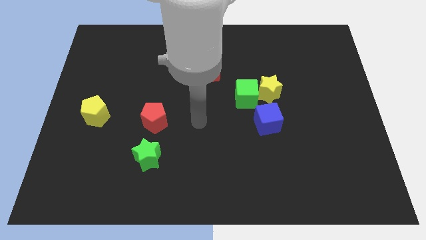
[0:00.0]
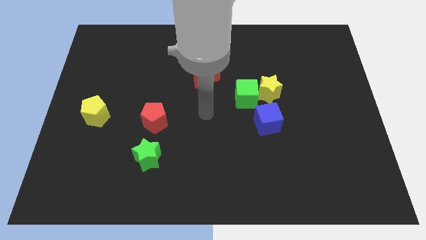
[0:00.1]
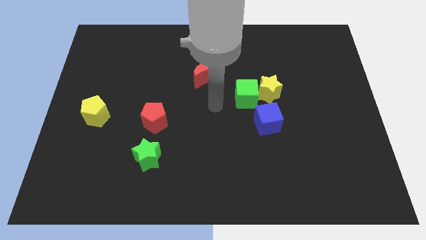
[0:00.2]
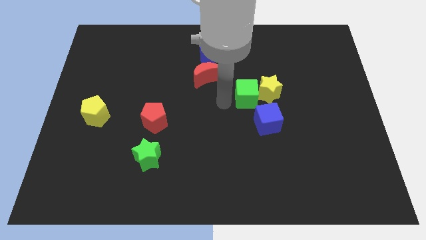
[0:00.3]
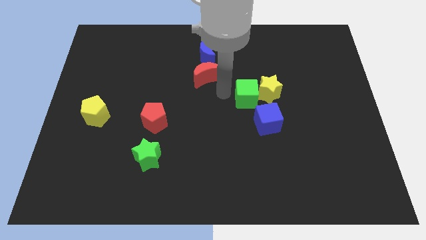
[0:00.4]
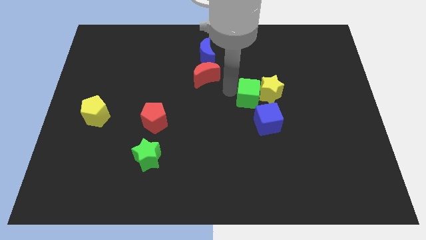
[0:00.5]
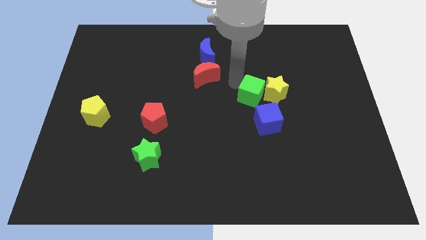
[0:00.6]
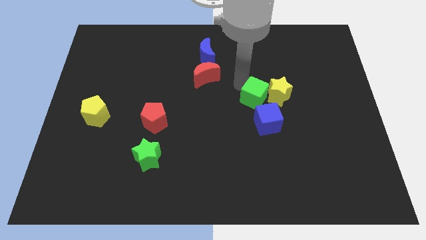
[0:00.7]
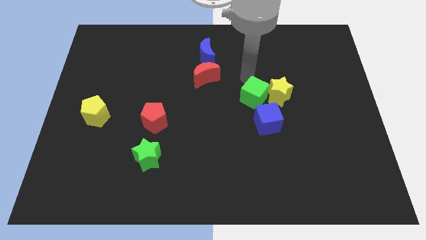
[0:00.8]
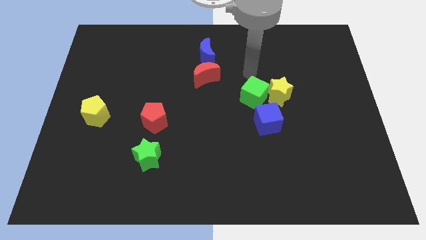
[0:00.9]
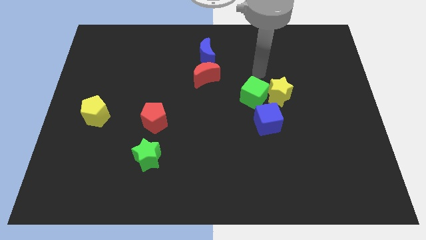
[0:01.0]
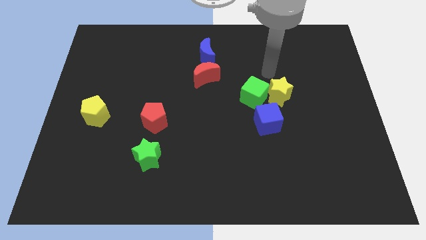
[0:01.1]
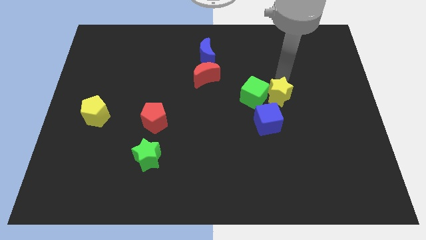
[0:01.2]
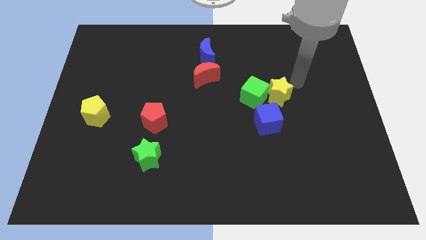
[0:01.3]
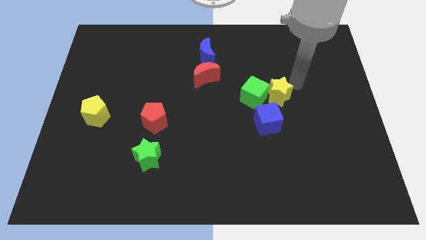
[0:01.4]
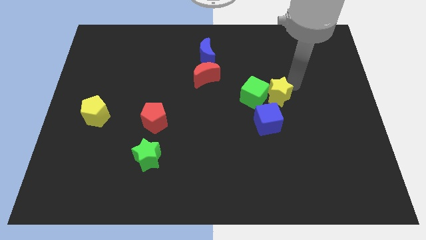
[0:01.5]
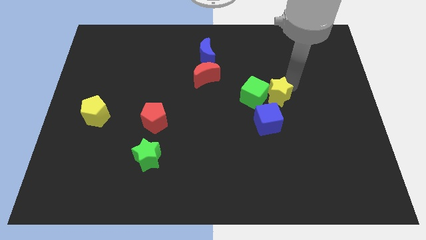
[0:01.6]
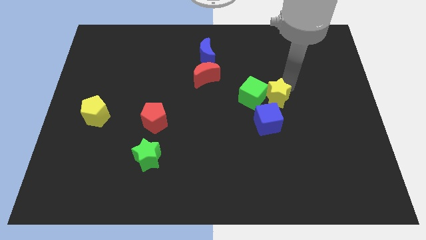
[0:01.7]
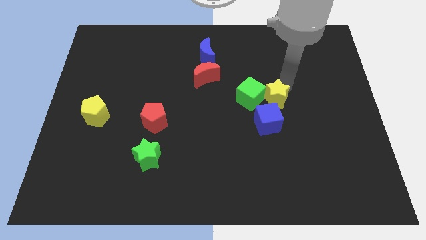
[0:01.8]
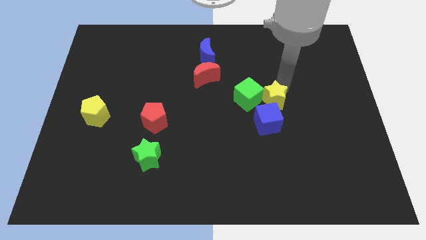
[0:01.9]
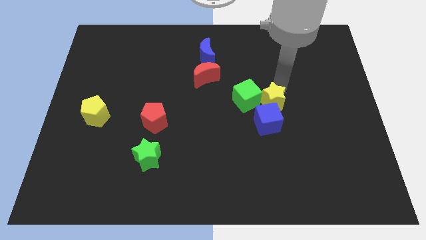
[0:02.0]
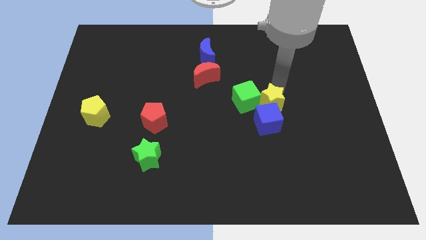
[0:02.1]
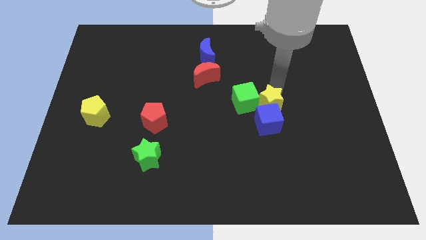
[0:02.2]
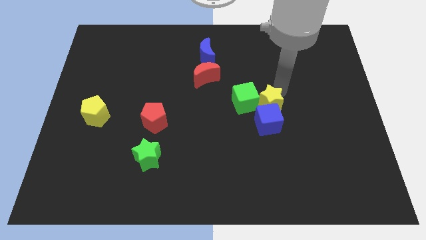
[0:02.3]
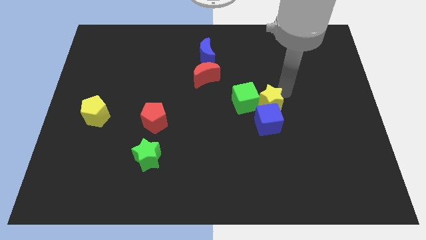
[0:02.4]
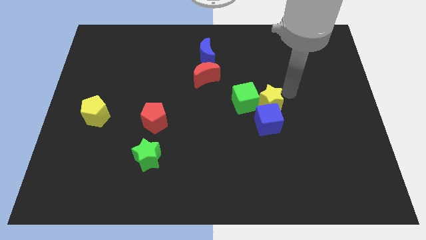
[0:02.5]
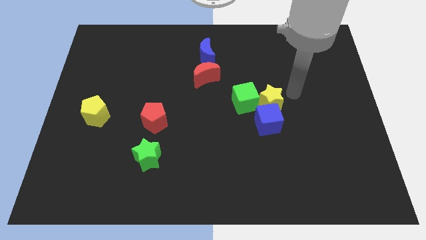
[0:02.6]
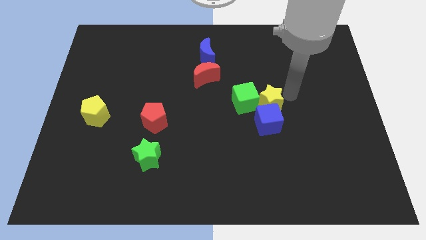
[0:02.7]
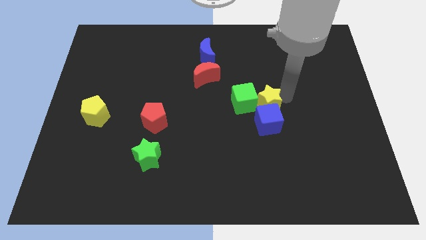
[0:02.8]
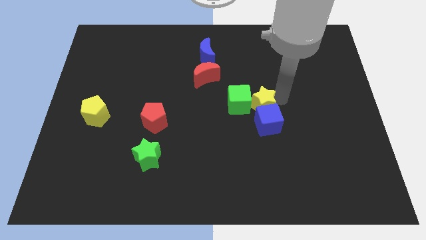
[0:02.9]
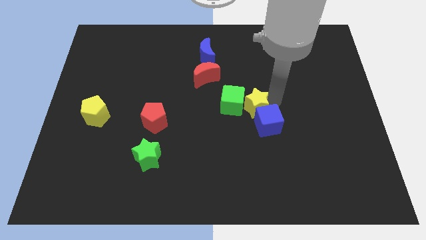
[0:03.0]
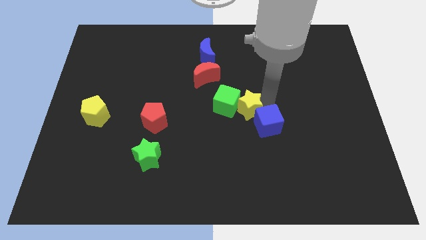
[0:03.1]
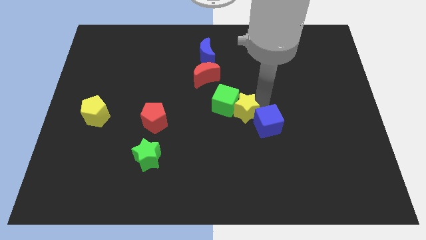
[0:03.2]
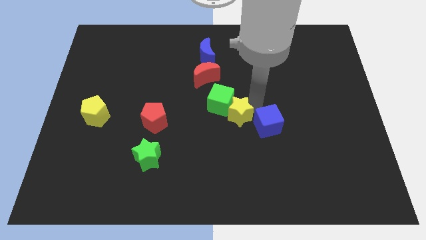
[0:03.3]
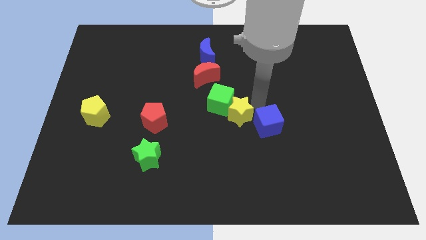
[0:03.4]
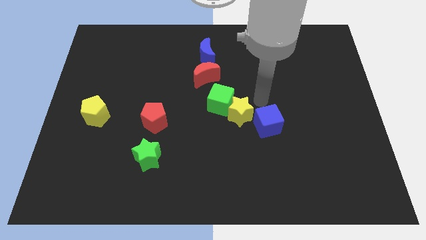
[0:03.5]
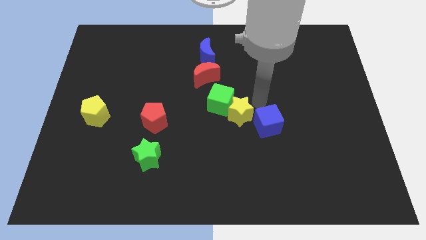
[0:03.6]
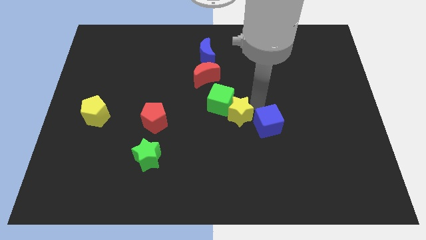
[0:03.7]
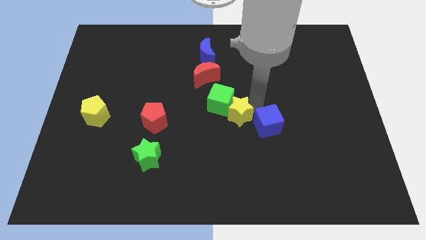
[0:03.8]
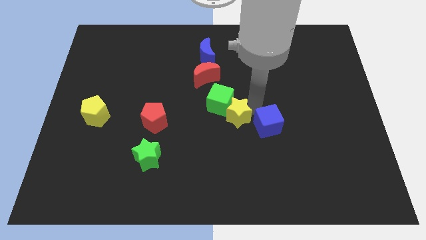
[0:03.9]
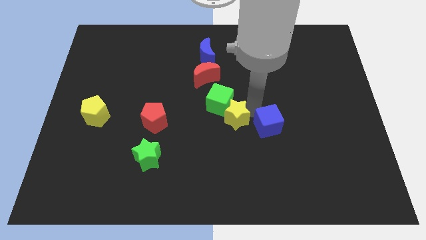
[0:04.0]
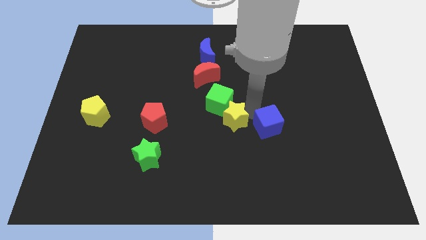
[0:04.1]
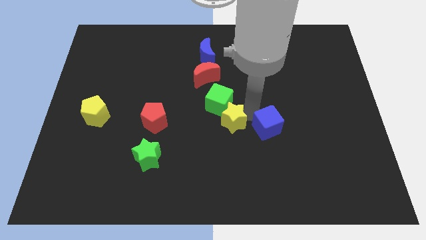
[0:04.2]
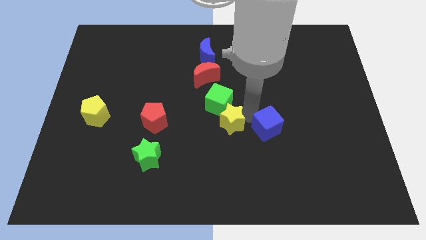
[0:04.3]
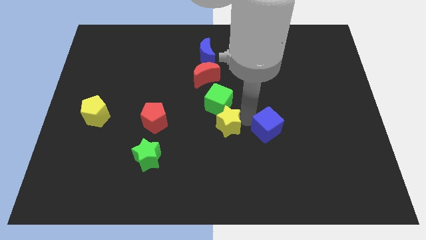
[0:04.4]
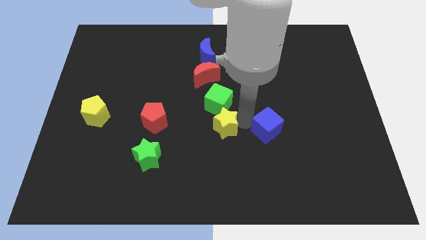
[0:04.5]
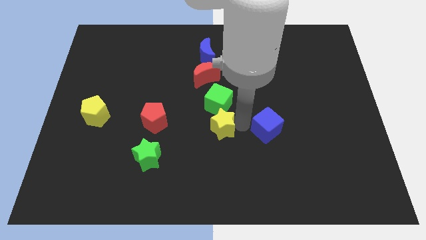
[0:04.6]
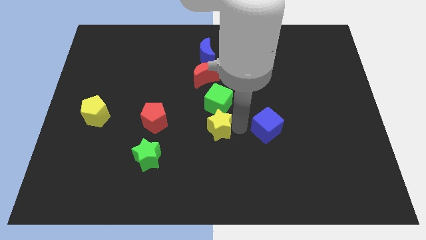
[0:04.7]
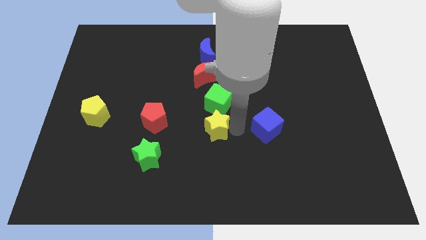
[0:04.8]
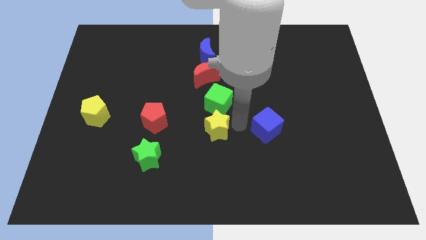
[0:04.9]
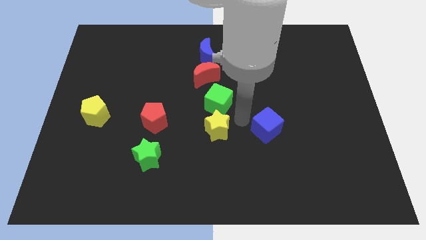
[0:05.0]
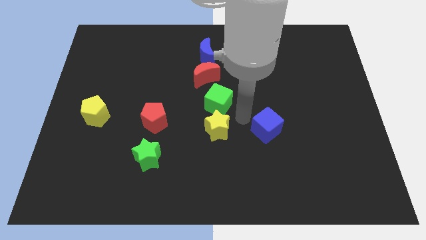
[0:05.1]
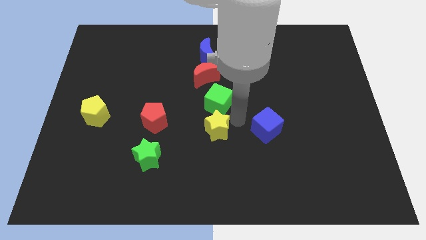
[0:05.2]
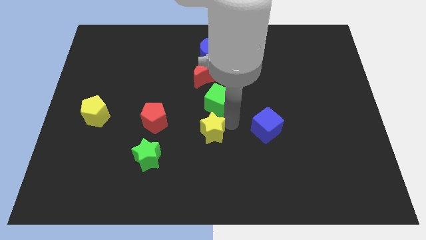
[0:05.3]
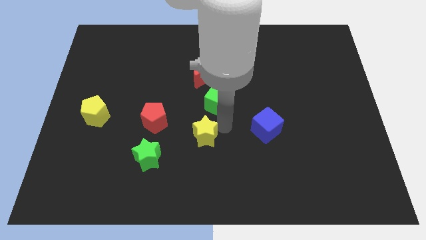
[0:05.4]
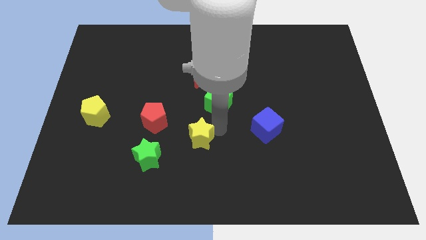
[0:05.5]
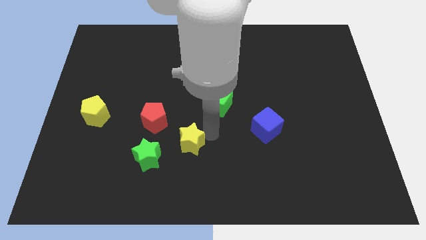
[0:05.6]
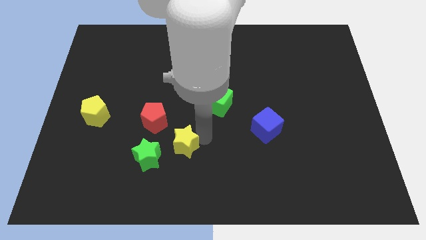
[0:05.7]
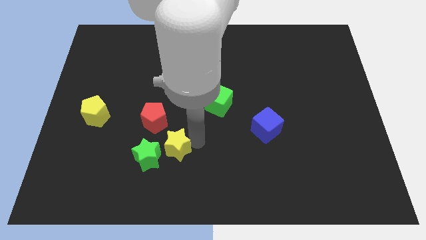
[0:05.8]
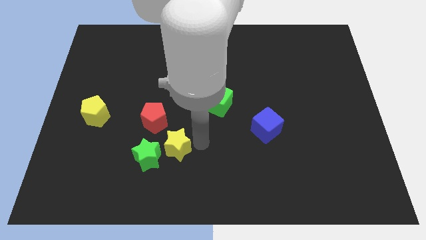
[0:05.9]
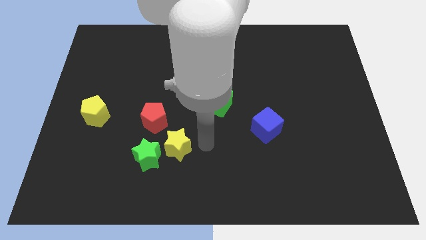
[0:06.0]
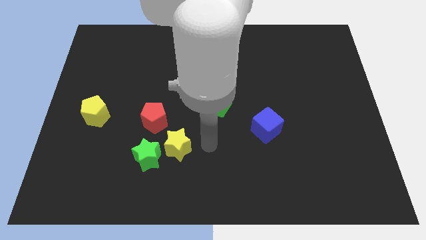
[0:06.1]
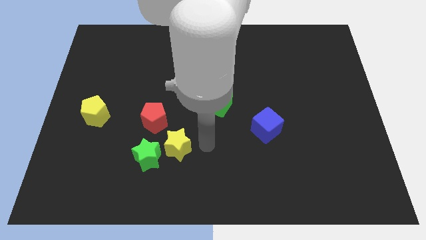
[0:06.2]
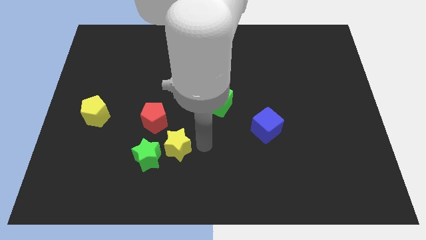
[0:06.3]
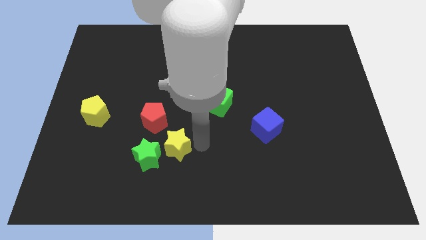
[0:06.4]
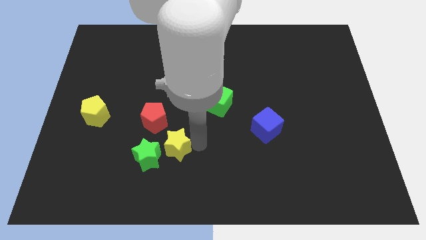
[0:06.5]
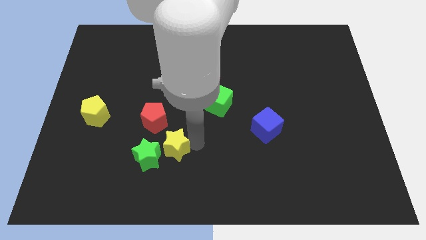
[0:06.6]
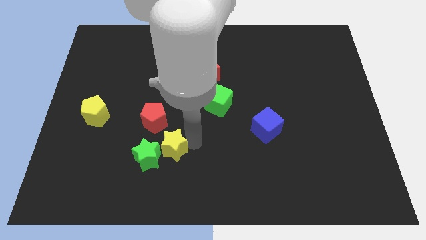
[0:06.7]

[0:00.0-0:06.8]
push the yellow star close to the green star

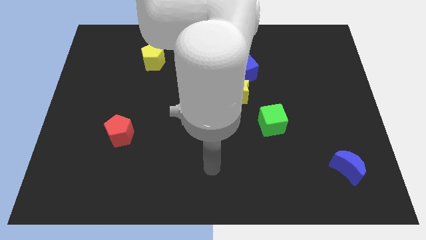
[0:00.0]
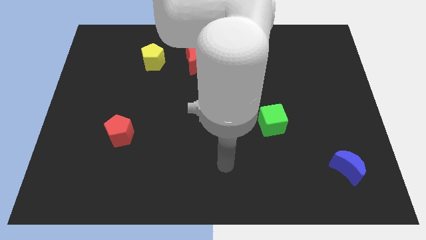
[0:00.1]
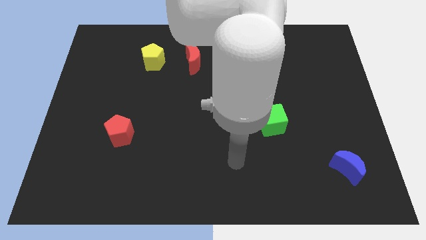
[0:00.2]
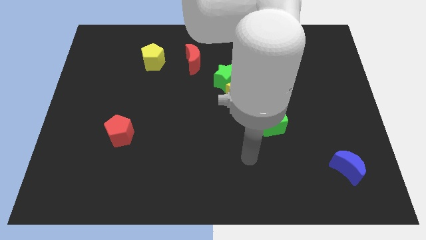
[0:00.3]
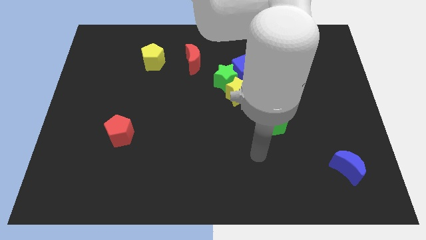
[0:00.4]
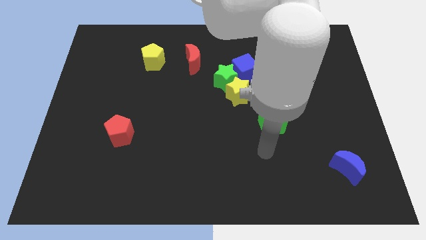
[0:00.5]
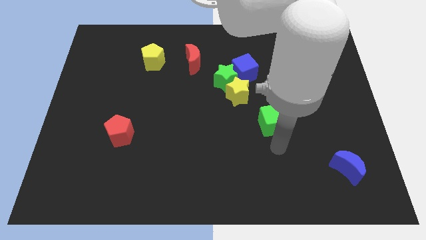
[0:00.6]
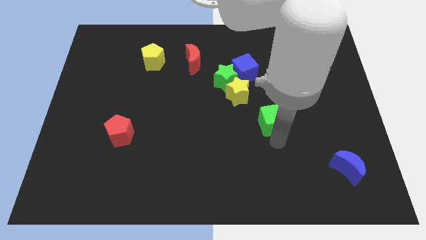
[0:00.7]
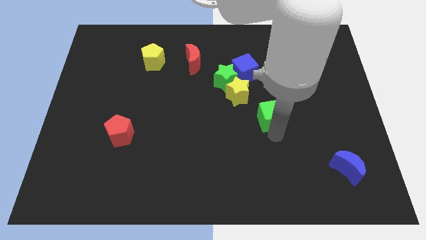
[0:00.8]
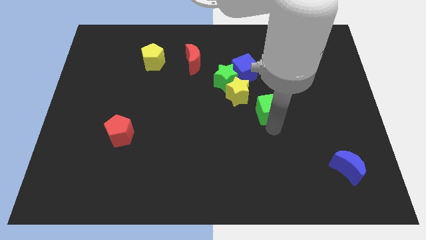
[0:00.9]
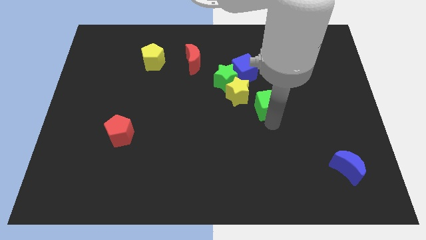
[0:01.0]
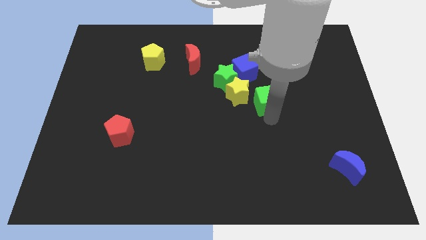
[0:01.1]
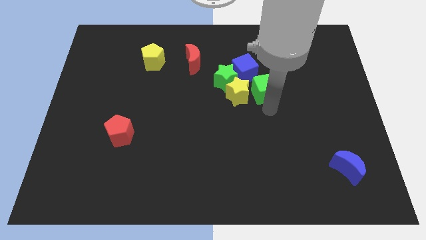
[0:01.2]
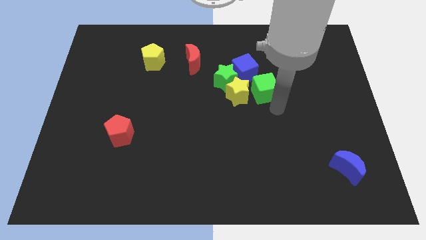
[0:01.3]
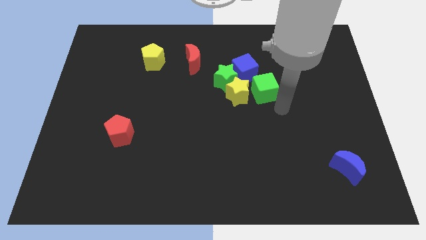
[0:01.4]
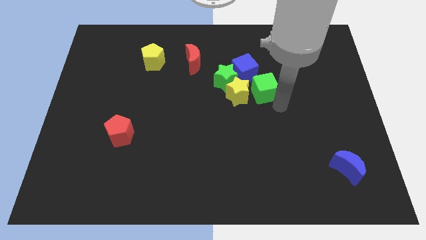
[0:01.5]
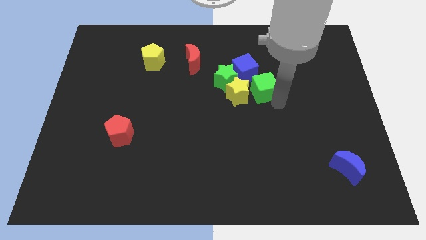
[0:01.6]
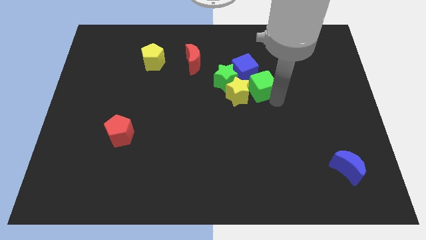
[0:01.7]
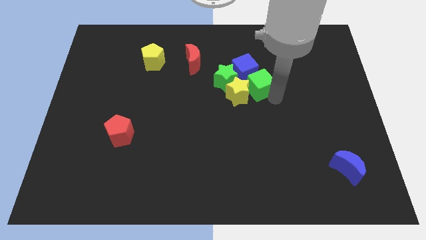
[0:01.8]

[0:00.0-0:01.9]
push the green cube next to the blue cube
